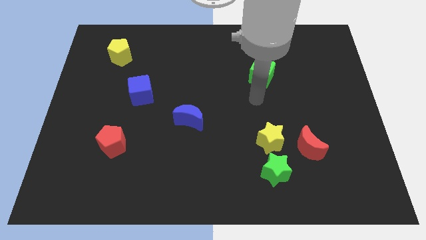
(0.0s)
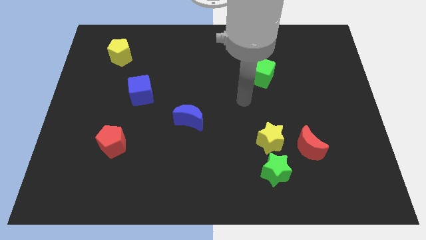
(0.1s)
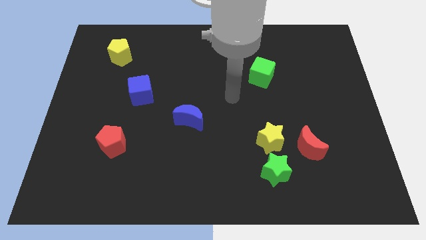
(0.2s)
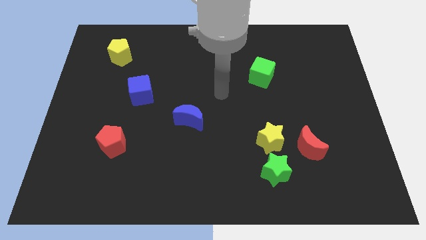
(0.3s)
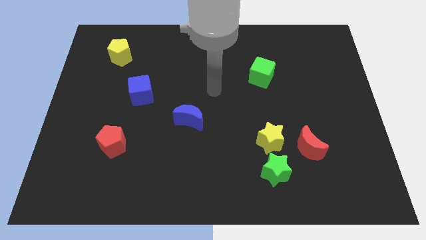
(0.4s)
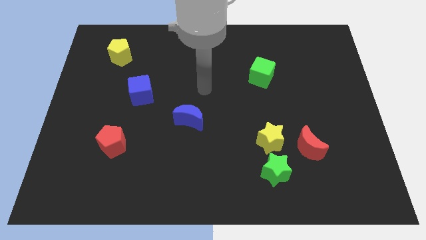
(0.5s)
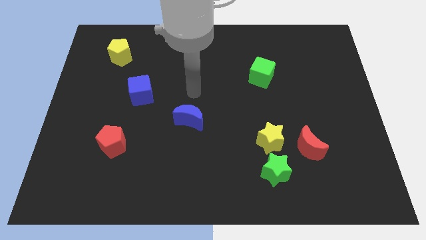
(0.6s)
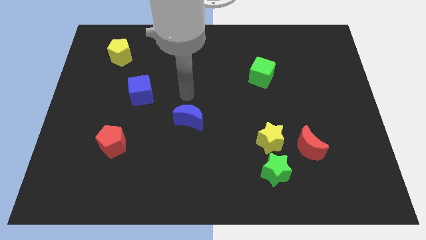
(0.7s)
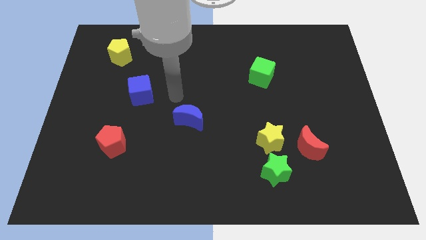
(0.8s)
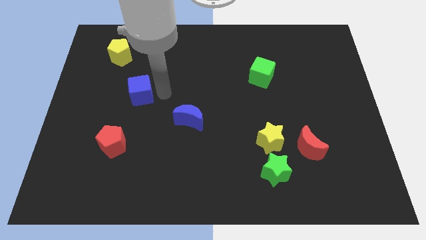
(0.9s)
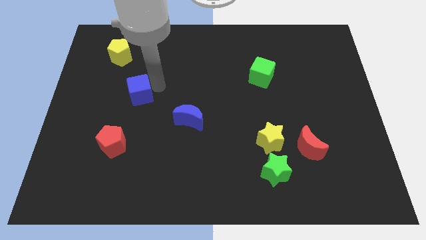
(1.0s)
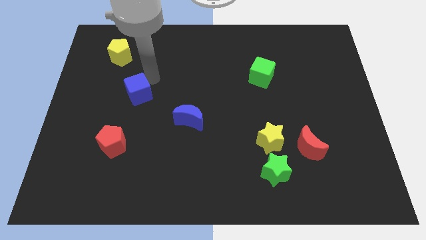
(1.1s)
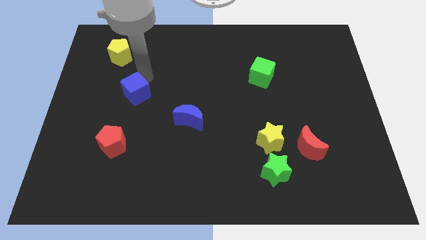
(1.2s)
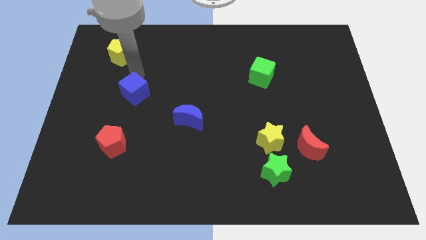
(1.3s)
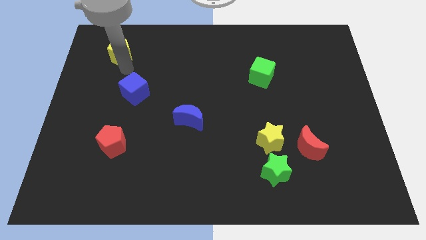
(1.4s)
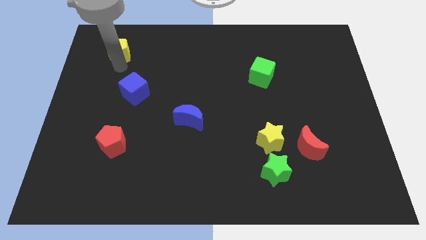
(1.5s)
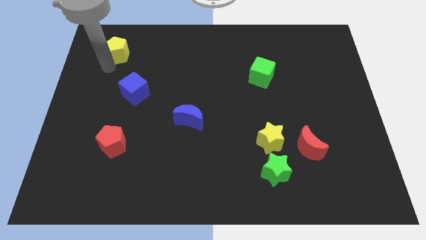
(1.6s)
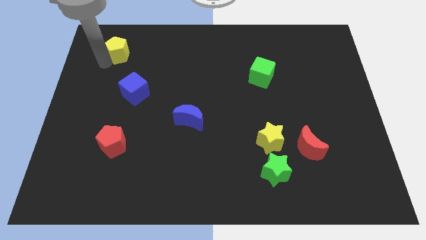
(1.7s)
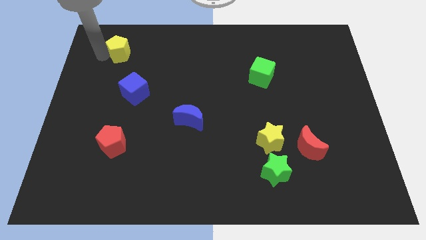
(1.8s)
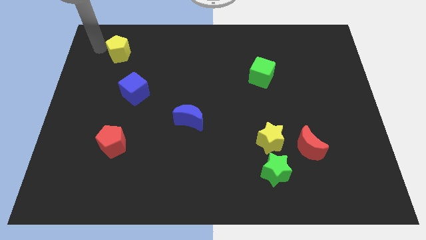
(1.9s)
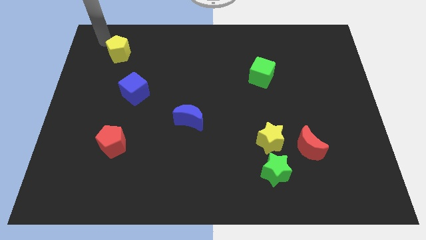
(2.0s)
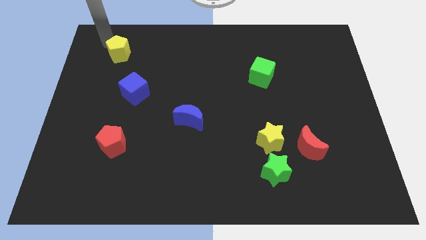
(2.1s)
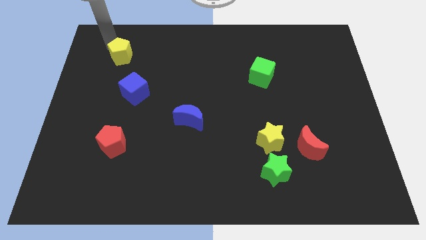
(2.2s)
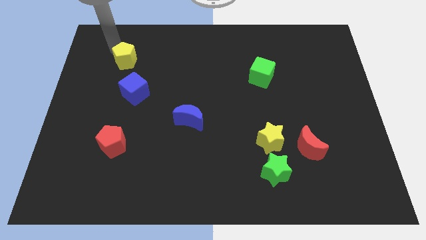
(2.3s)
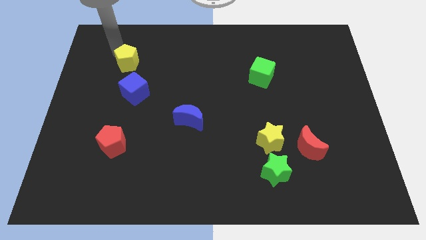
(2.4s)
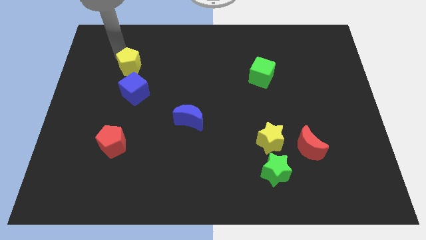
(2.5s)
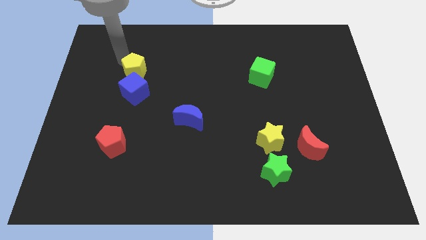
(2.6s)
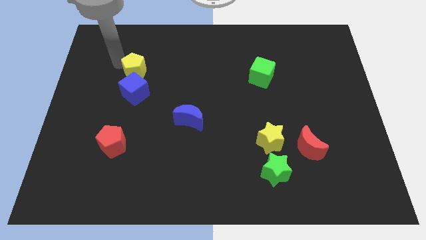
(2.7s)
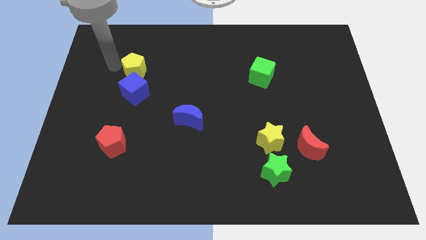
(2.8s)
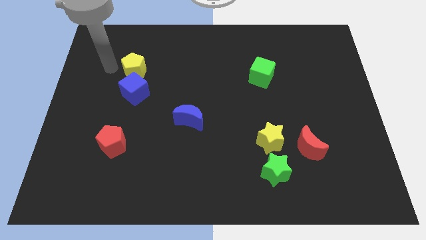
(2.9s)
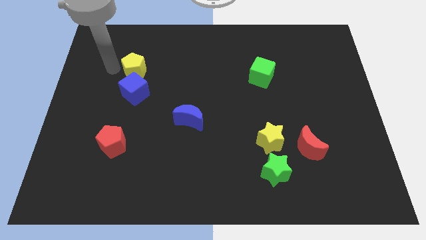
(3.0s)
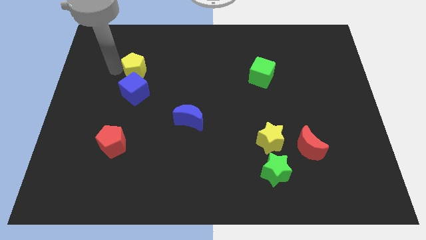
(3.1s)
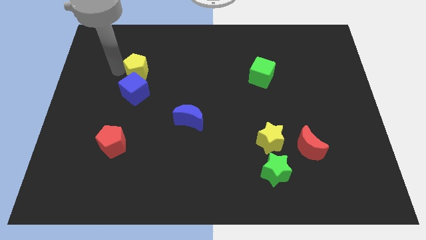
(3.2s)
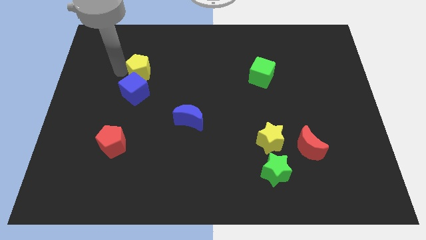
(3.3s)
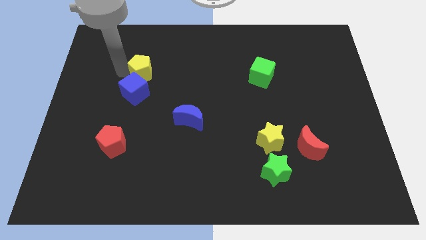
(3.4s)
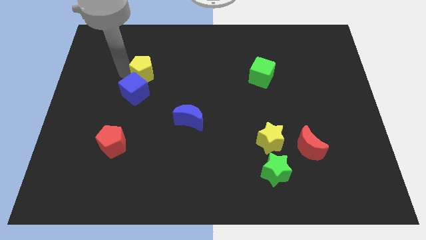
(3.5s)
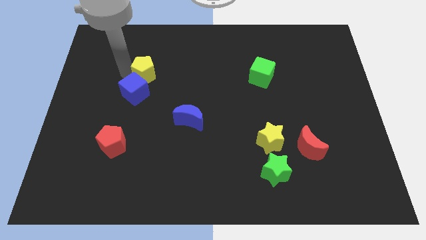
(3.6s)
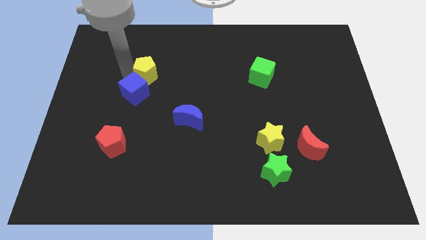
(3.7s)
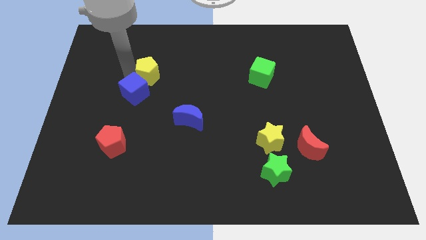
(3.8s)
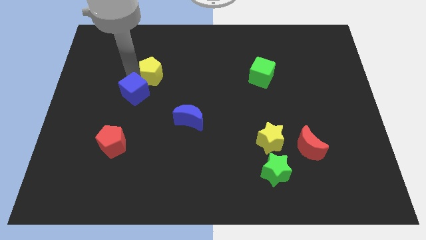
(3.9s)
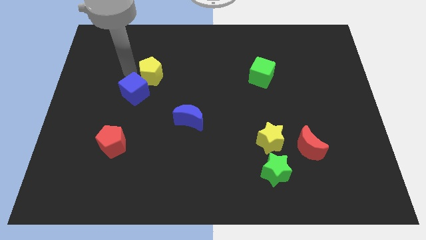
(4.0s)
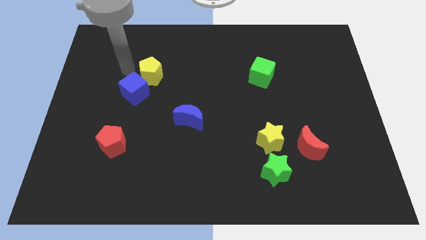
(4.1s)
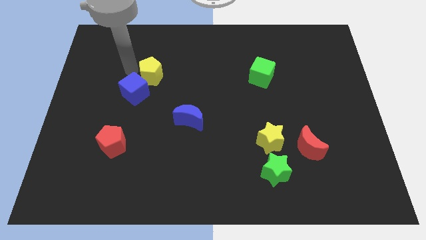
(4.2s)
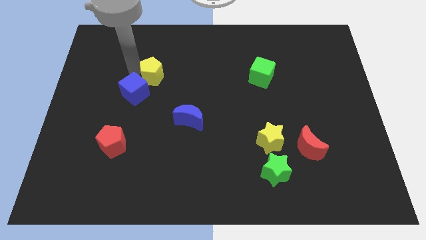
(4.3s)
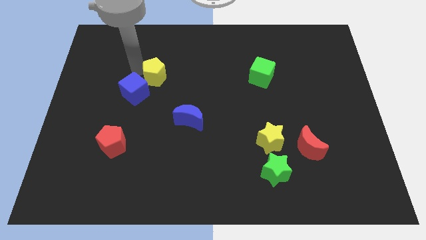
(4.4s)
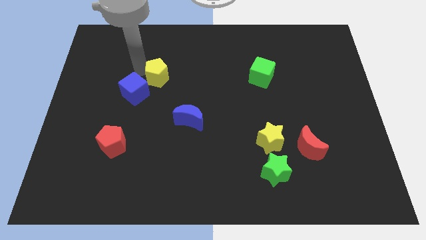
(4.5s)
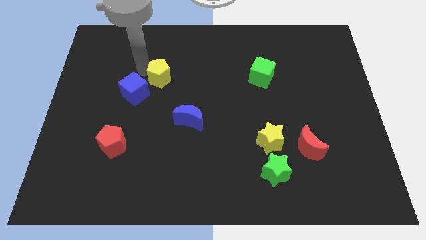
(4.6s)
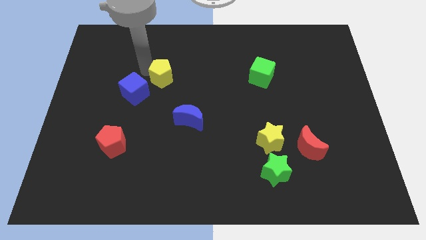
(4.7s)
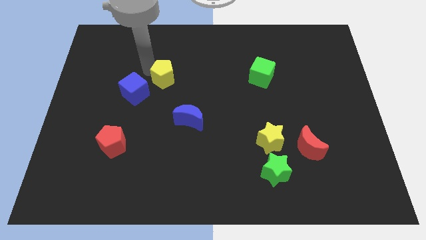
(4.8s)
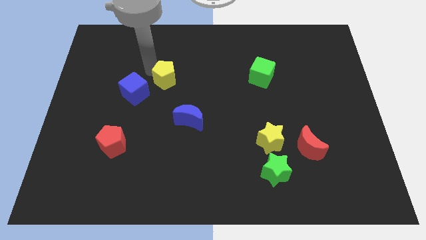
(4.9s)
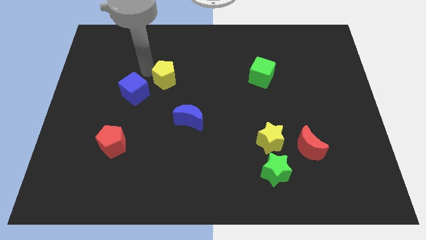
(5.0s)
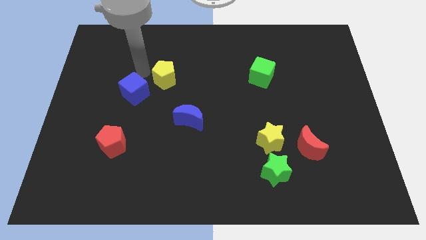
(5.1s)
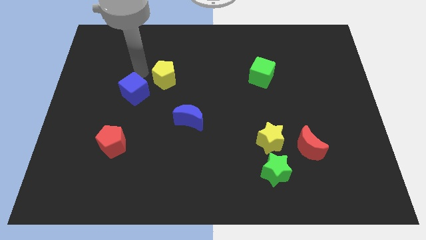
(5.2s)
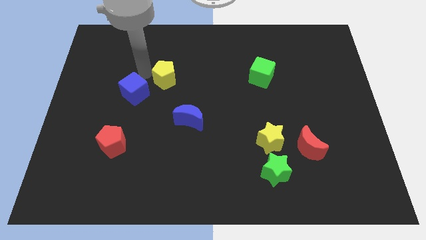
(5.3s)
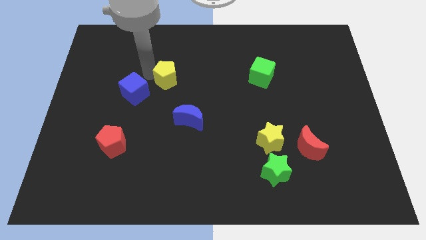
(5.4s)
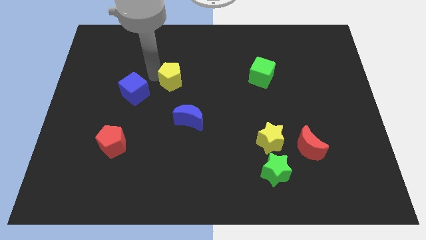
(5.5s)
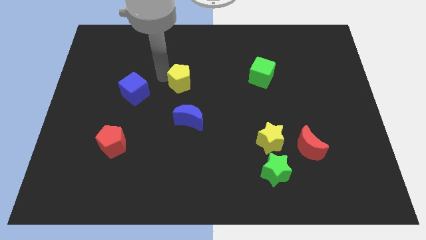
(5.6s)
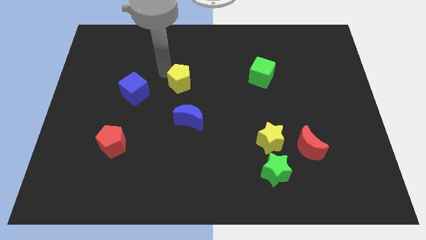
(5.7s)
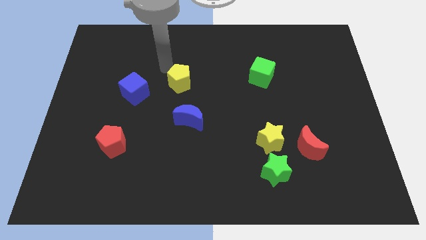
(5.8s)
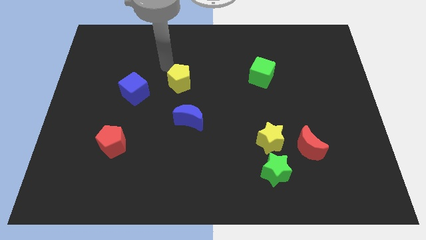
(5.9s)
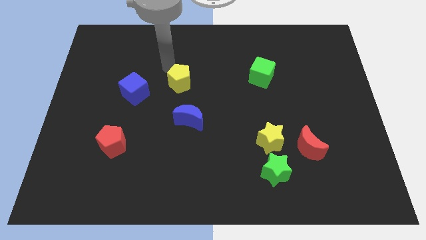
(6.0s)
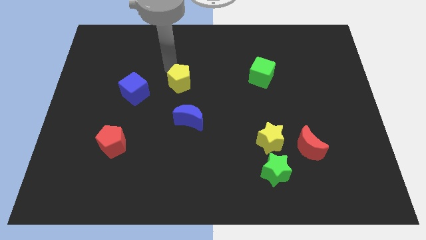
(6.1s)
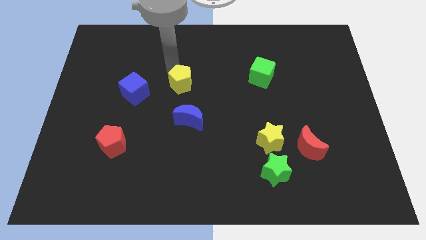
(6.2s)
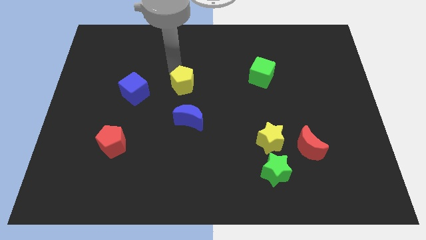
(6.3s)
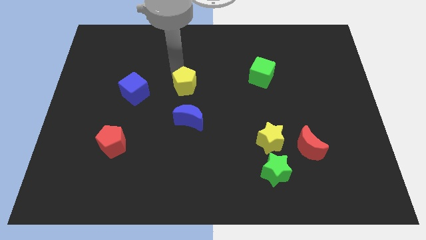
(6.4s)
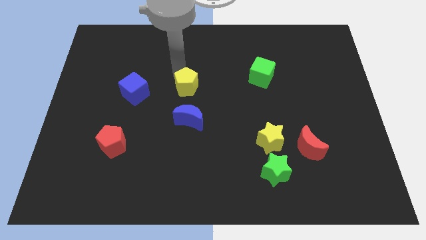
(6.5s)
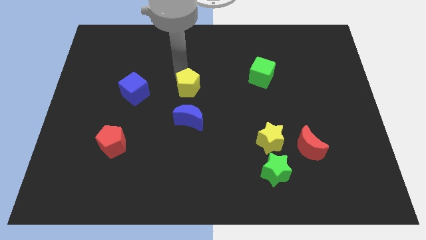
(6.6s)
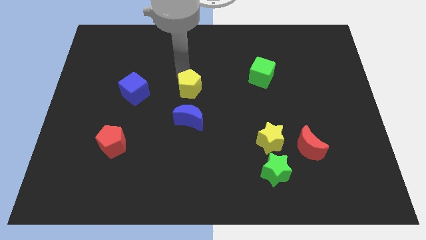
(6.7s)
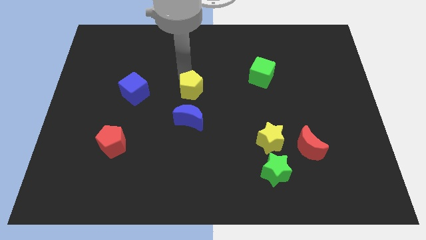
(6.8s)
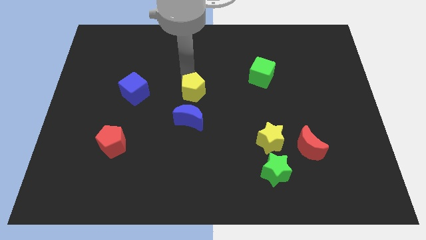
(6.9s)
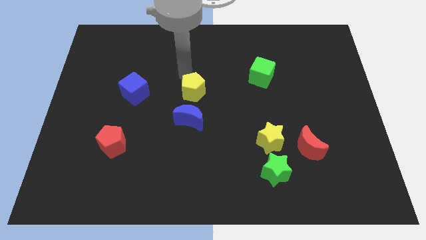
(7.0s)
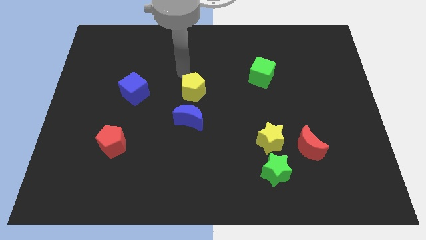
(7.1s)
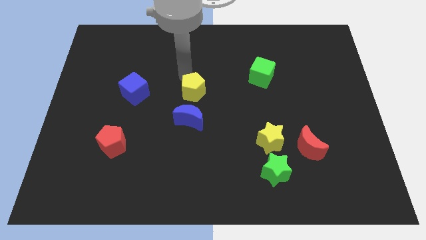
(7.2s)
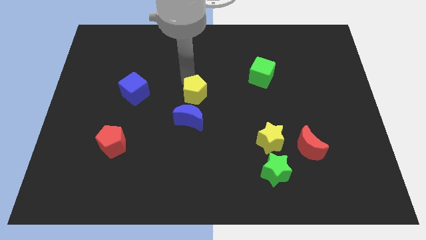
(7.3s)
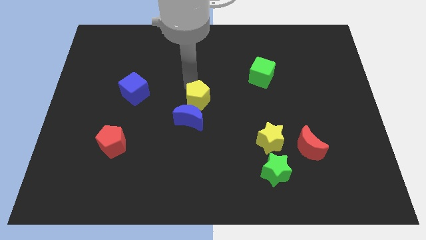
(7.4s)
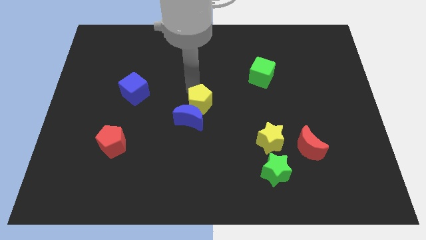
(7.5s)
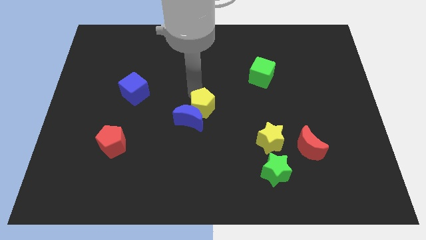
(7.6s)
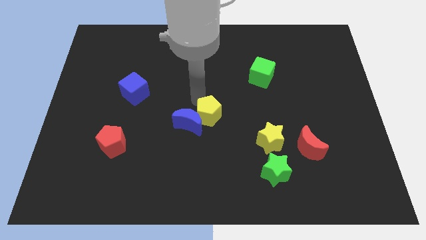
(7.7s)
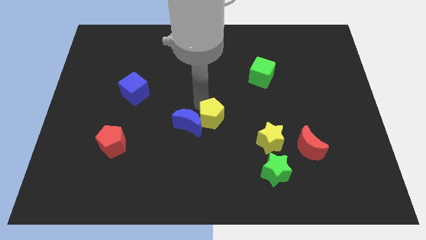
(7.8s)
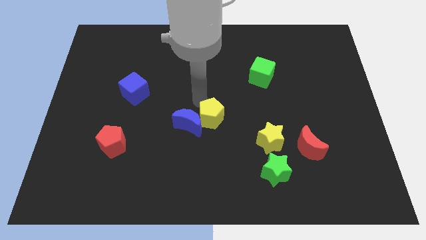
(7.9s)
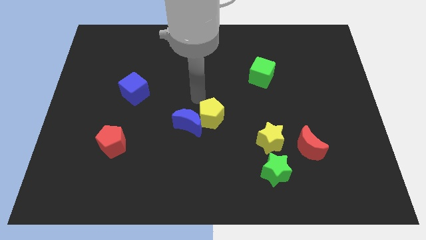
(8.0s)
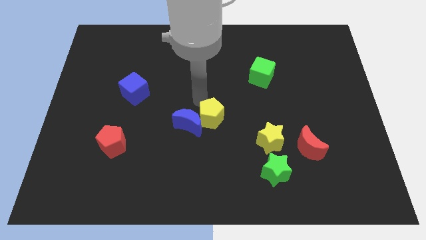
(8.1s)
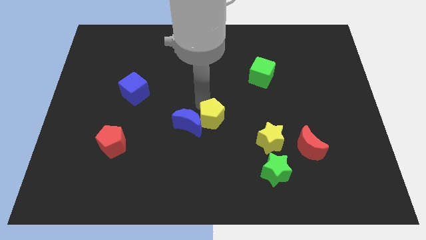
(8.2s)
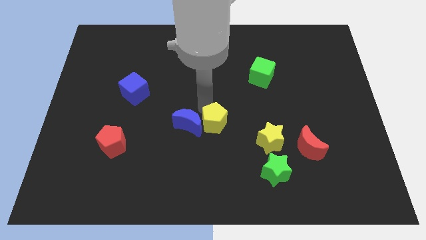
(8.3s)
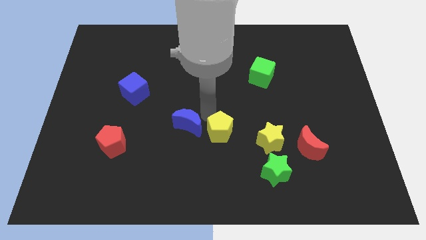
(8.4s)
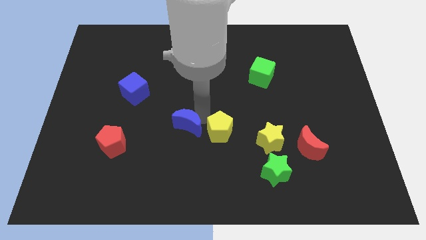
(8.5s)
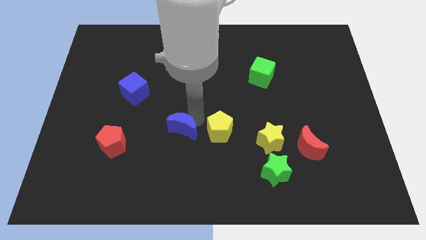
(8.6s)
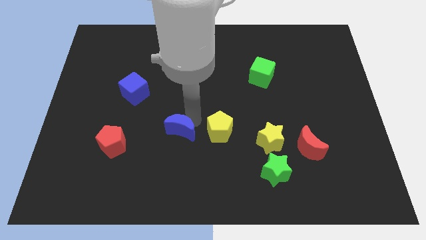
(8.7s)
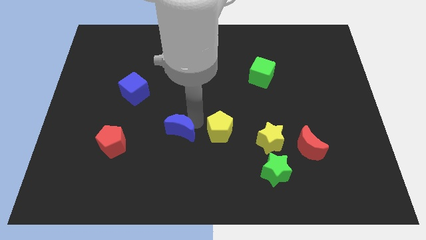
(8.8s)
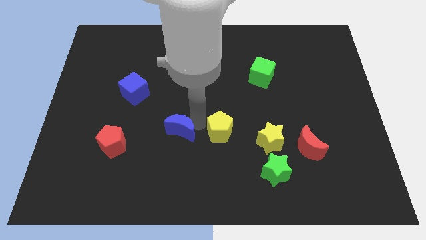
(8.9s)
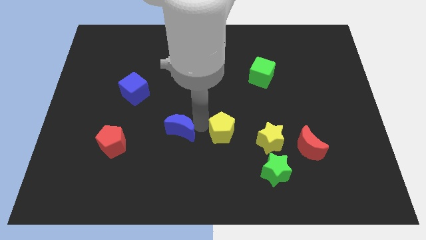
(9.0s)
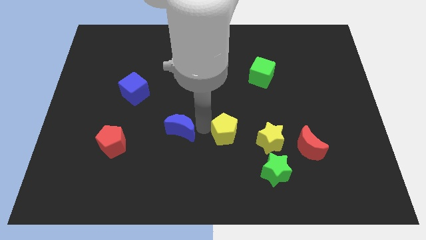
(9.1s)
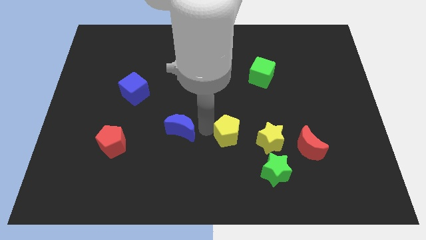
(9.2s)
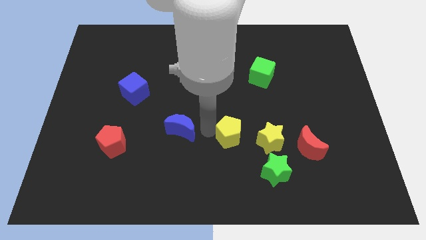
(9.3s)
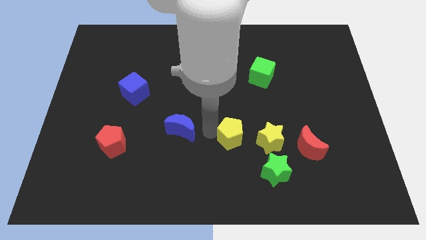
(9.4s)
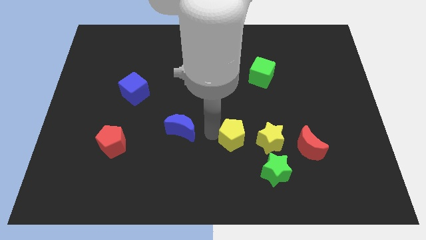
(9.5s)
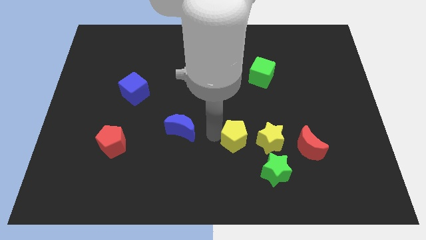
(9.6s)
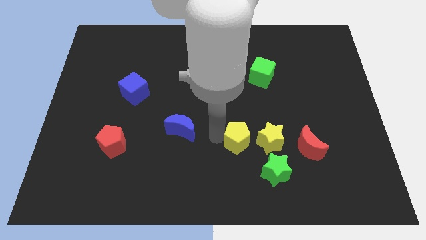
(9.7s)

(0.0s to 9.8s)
move the yellow pentagon to the left side of the red moon
